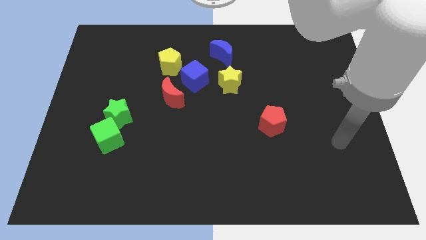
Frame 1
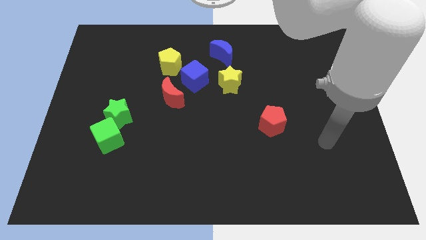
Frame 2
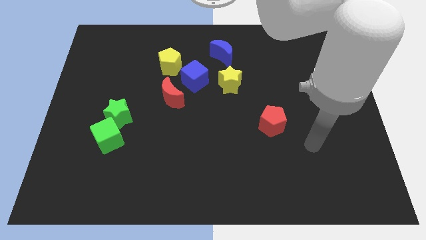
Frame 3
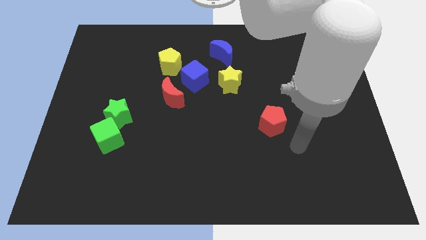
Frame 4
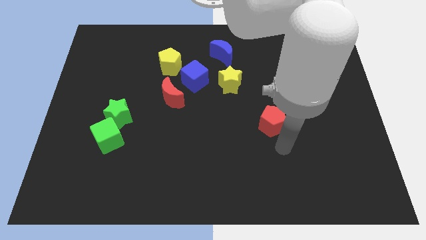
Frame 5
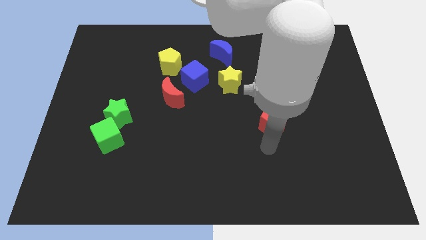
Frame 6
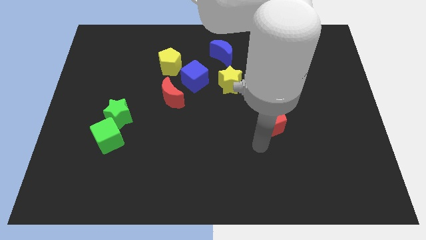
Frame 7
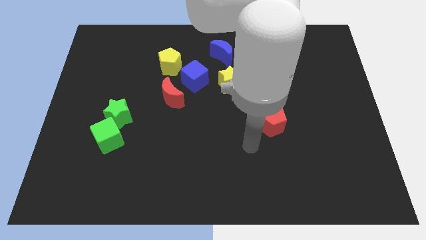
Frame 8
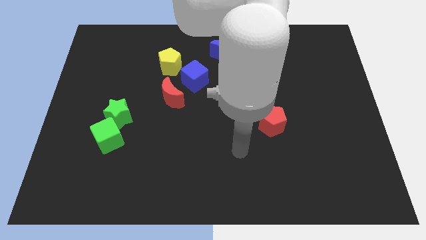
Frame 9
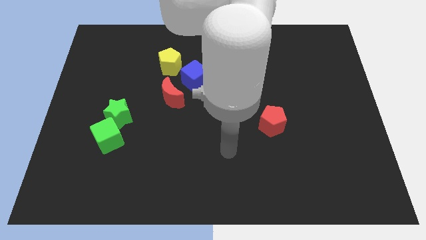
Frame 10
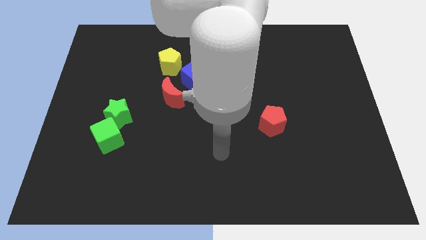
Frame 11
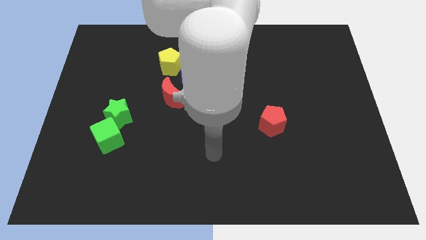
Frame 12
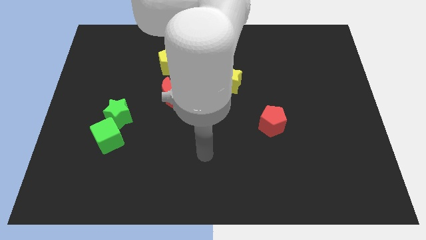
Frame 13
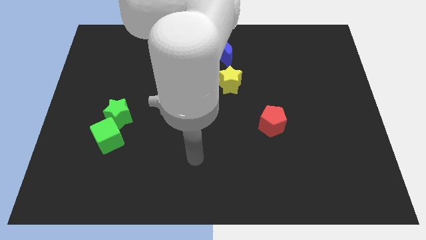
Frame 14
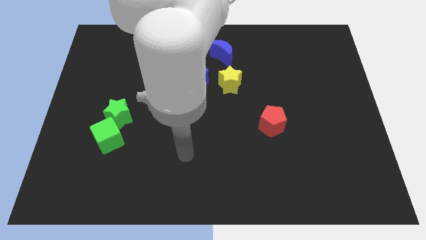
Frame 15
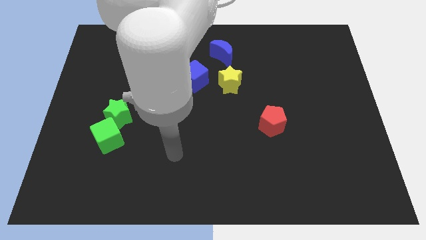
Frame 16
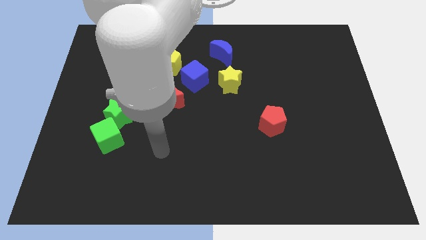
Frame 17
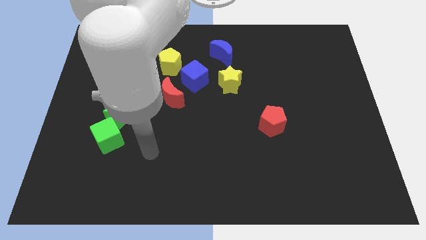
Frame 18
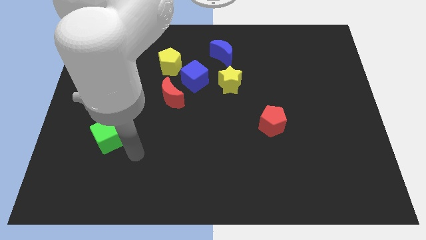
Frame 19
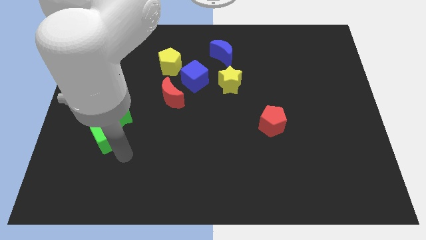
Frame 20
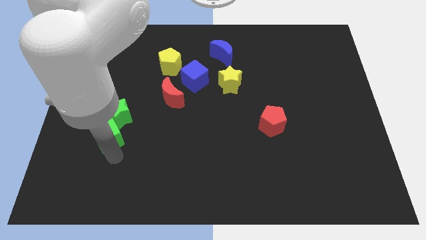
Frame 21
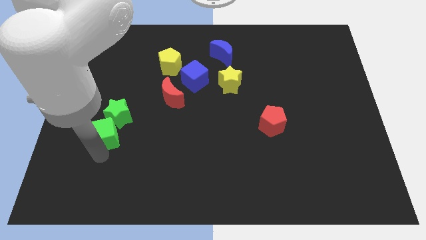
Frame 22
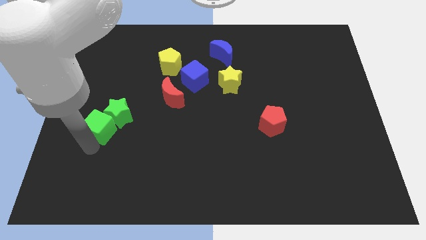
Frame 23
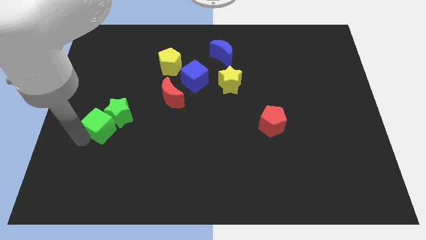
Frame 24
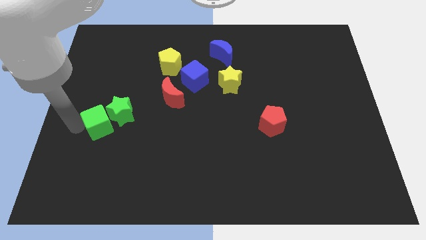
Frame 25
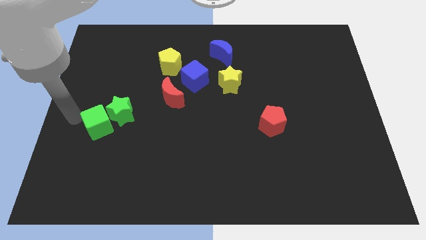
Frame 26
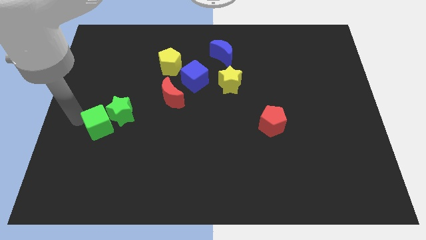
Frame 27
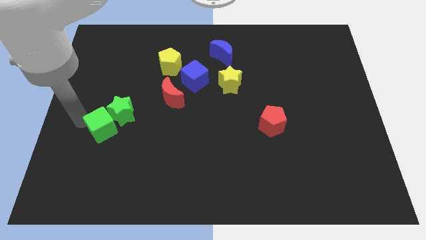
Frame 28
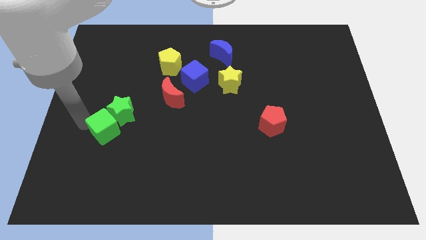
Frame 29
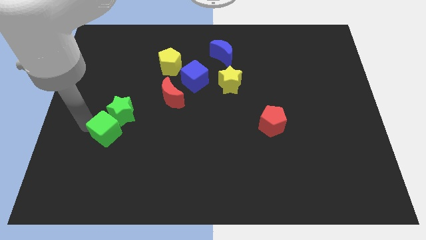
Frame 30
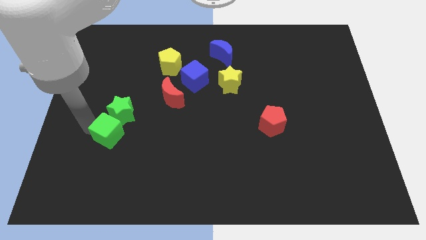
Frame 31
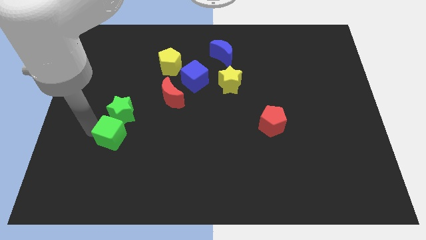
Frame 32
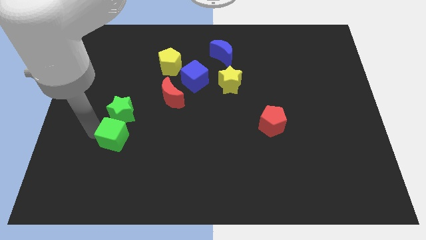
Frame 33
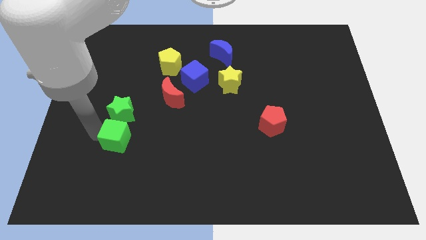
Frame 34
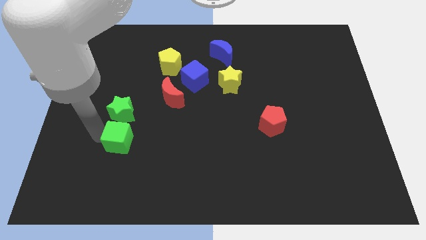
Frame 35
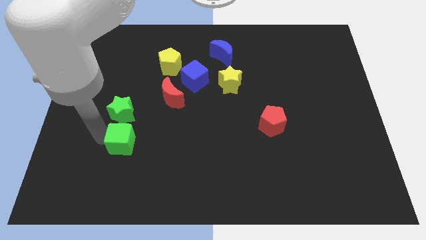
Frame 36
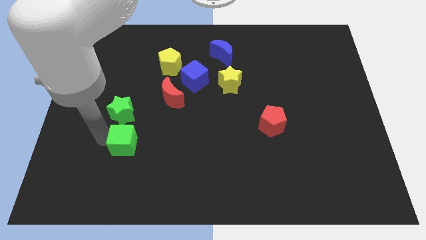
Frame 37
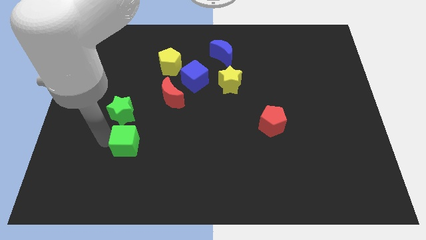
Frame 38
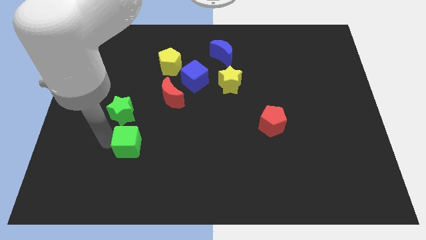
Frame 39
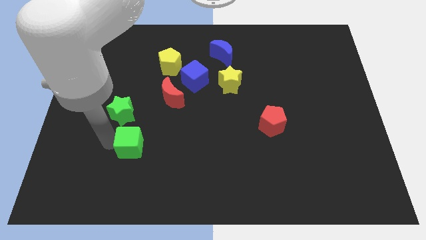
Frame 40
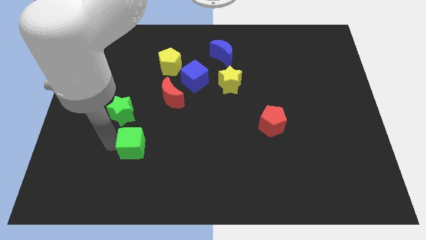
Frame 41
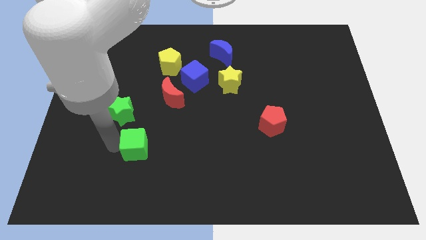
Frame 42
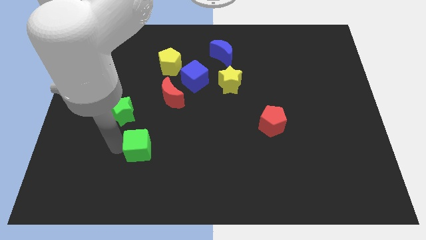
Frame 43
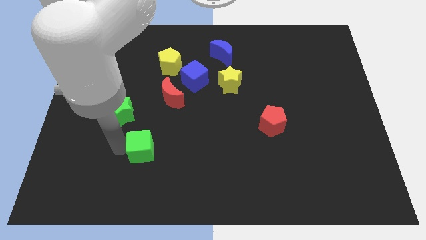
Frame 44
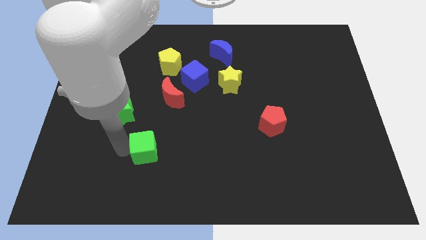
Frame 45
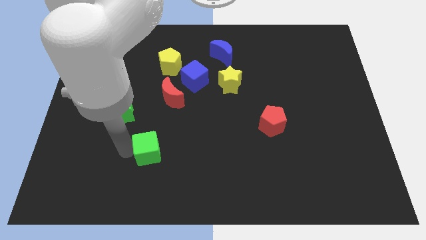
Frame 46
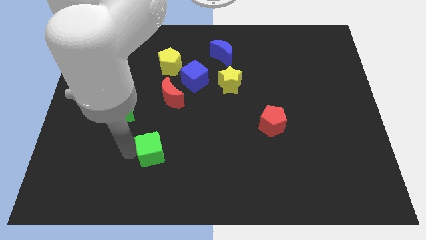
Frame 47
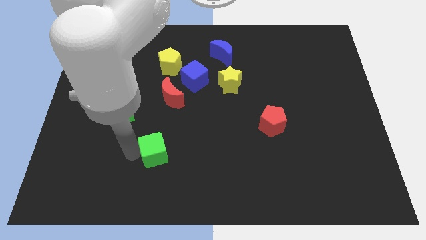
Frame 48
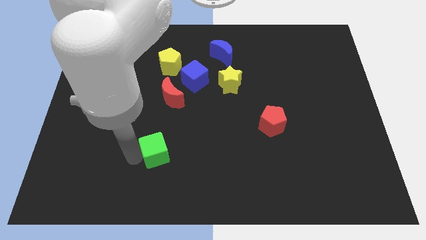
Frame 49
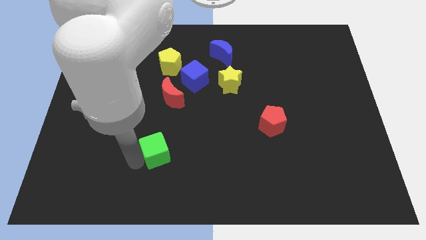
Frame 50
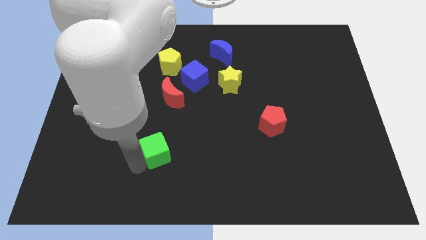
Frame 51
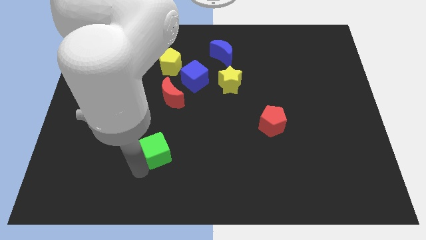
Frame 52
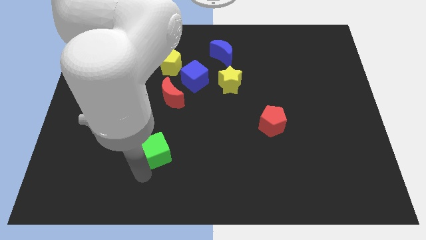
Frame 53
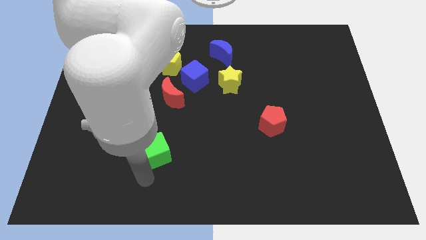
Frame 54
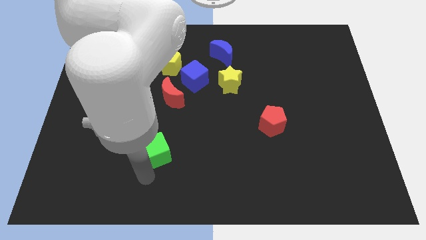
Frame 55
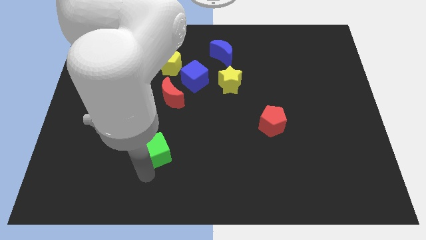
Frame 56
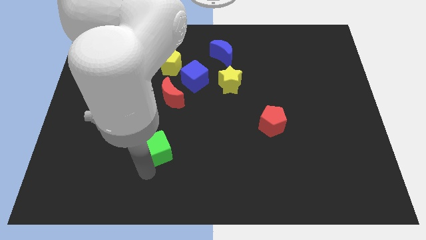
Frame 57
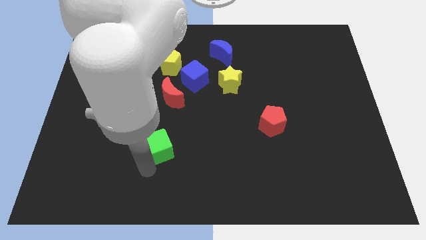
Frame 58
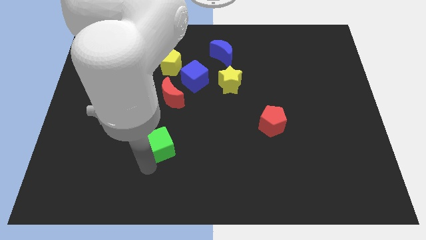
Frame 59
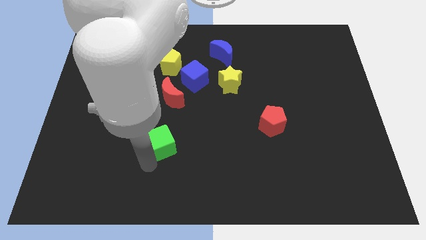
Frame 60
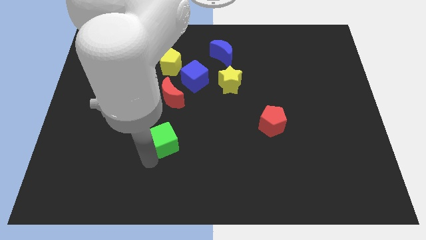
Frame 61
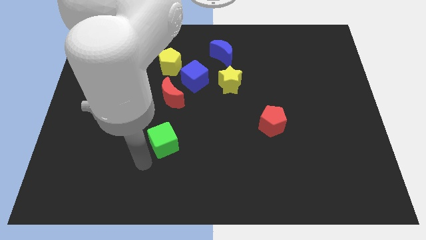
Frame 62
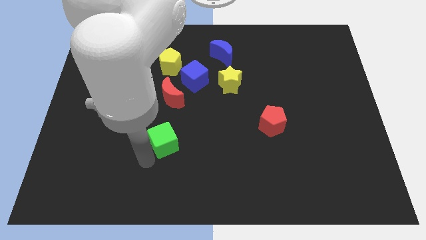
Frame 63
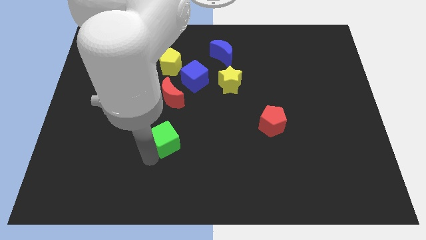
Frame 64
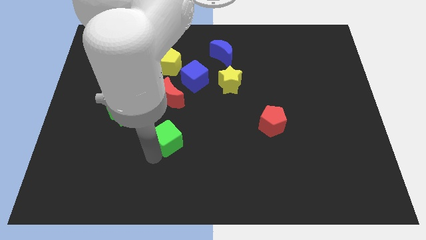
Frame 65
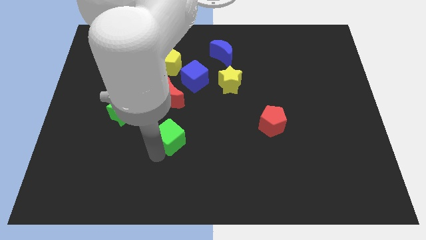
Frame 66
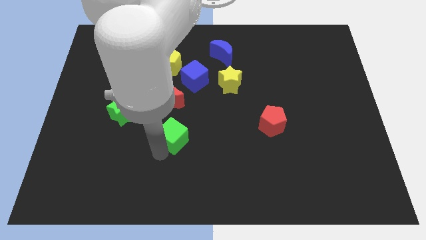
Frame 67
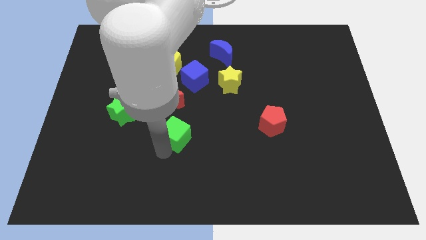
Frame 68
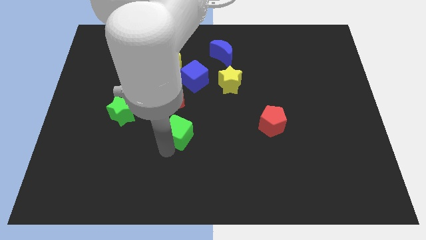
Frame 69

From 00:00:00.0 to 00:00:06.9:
put the green cube to the middle of the board

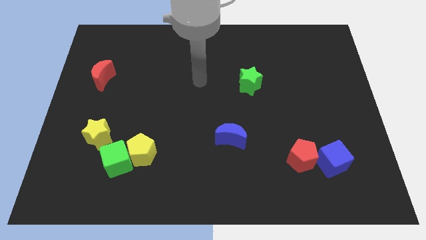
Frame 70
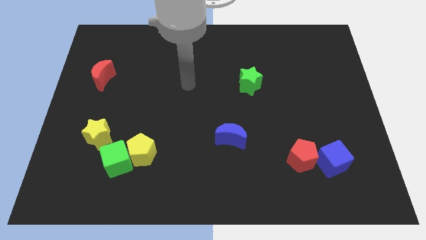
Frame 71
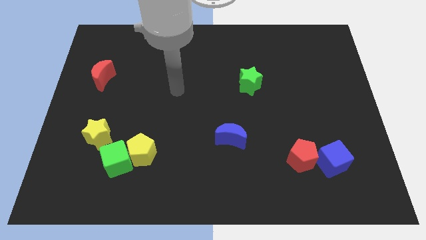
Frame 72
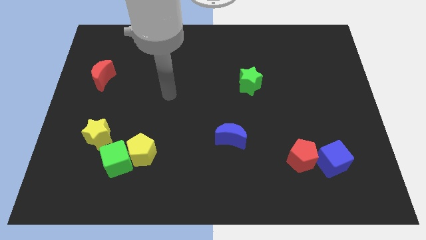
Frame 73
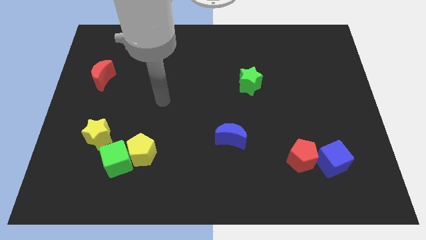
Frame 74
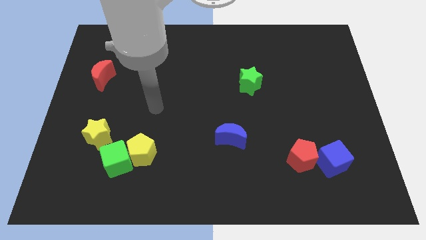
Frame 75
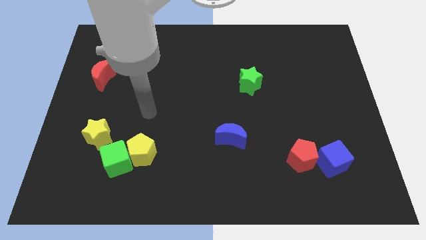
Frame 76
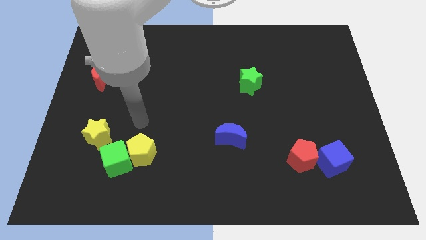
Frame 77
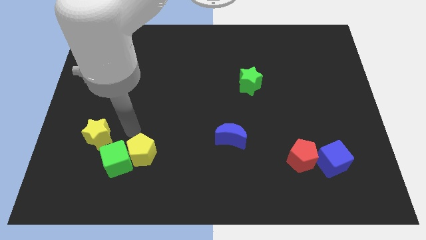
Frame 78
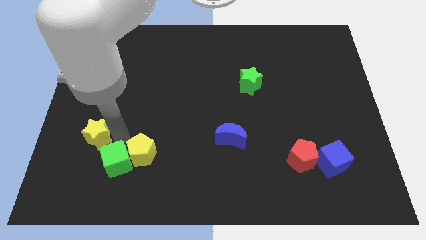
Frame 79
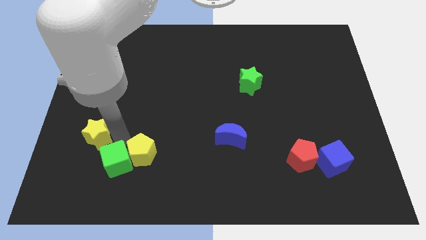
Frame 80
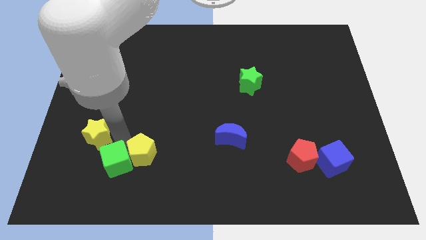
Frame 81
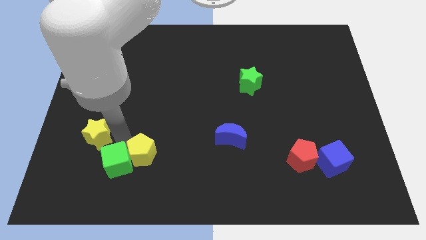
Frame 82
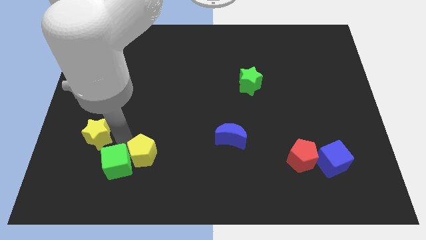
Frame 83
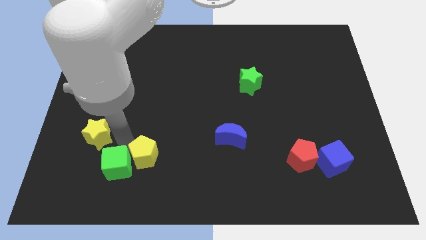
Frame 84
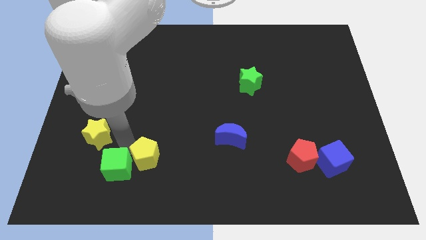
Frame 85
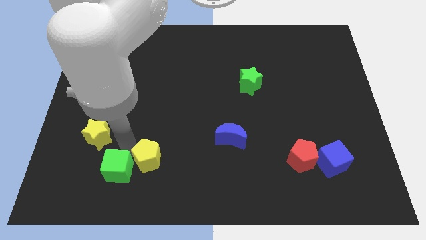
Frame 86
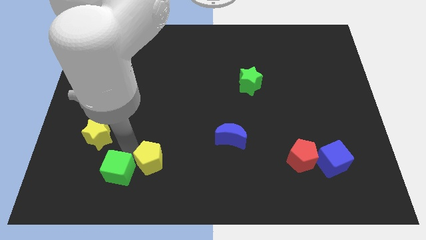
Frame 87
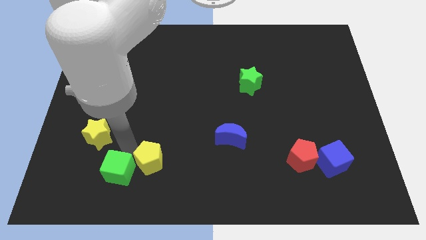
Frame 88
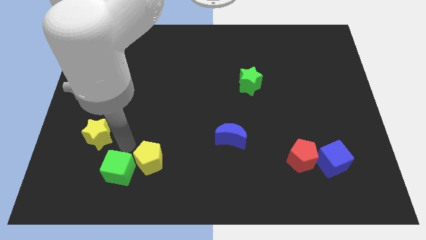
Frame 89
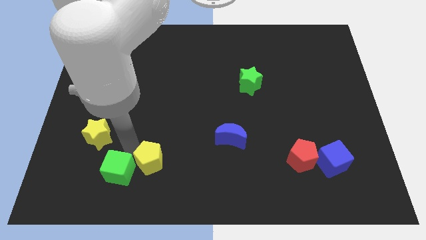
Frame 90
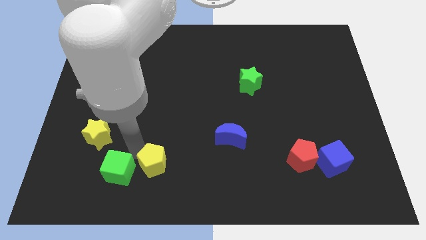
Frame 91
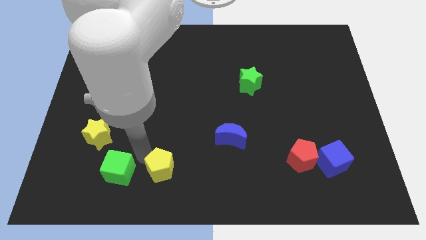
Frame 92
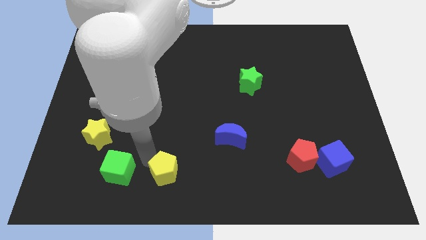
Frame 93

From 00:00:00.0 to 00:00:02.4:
slide the yellow pentagon to the bottom side
